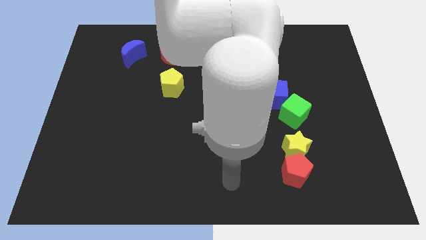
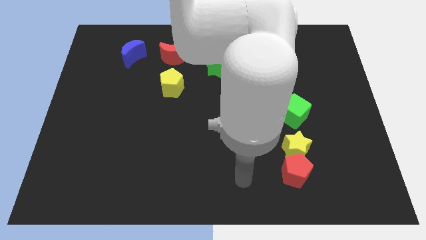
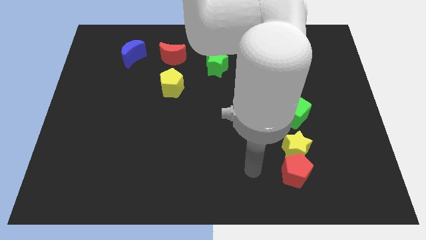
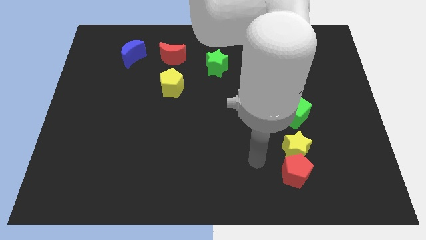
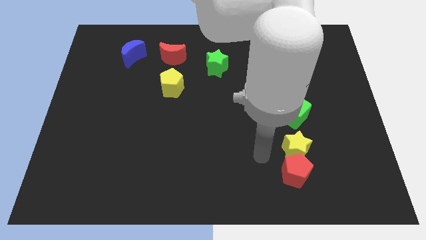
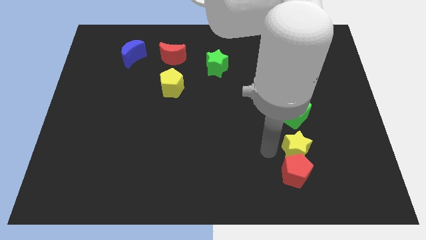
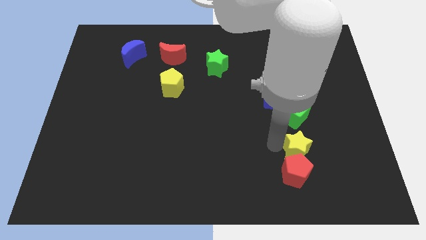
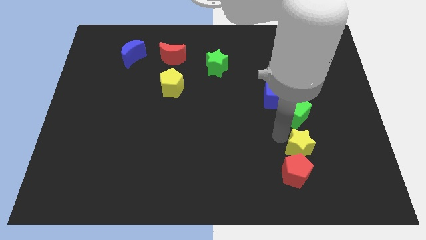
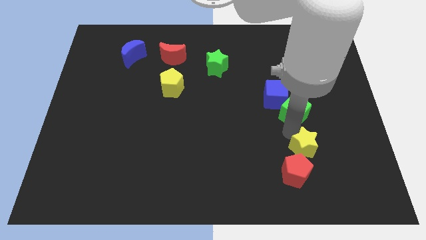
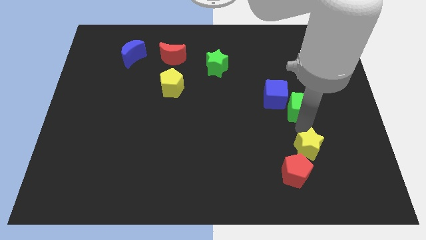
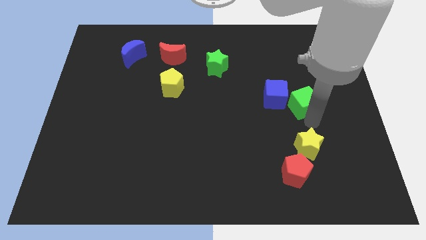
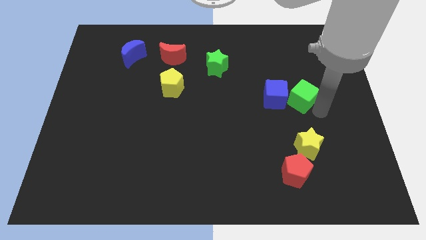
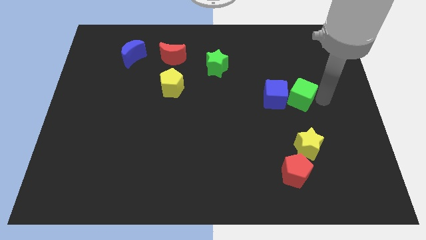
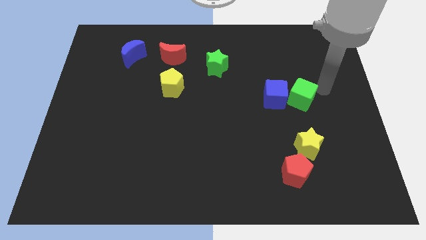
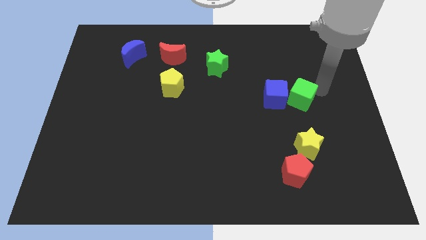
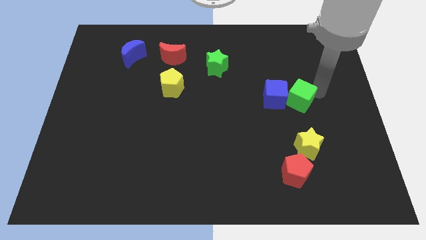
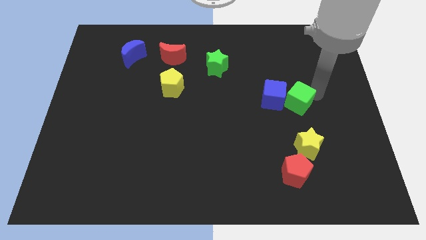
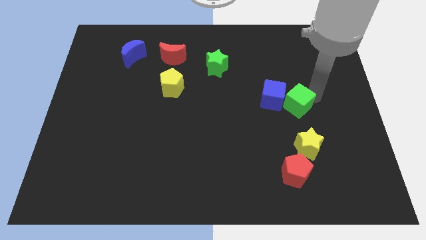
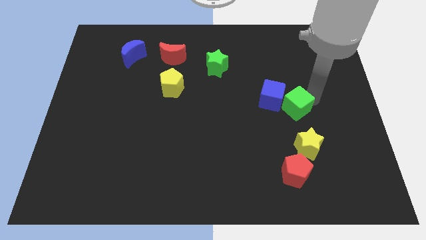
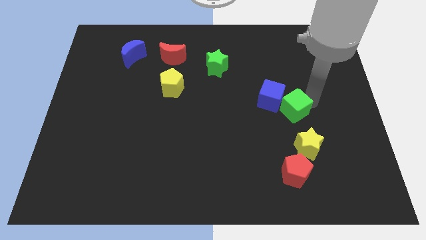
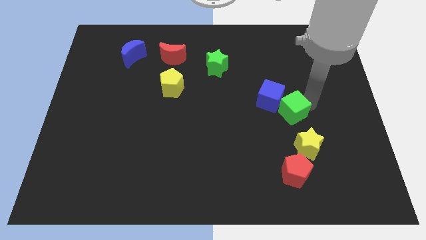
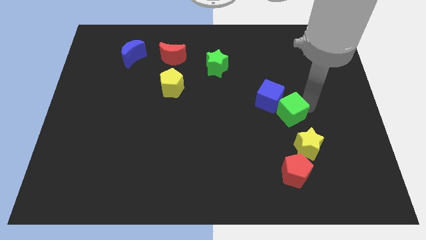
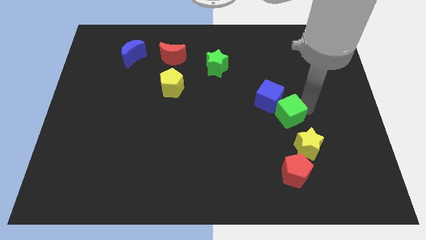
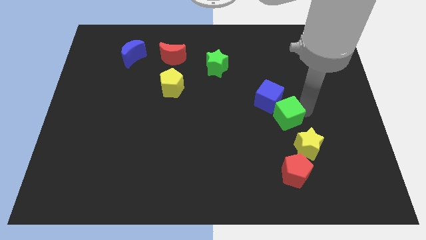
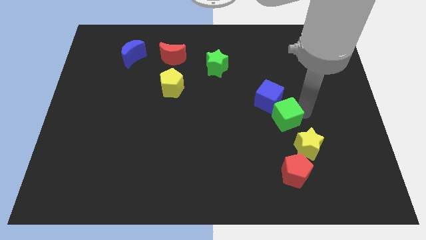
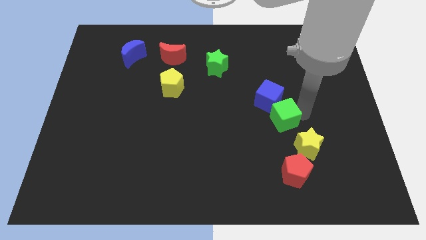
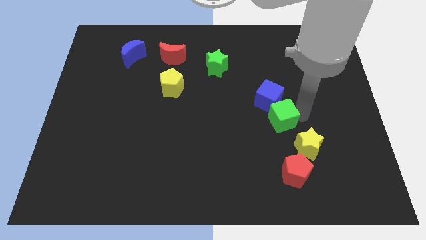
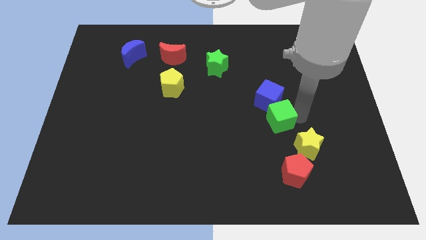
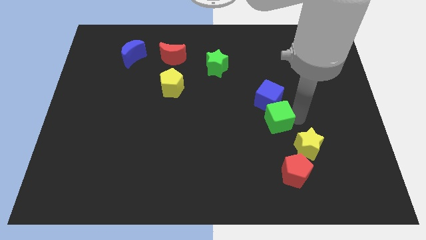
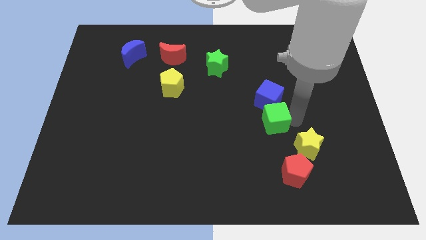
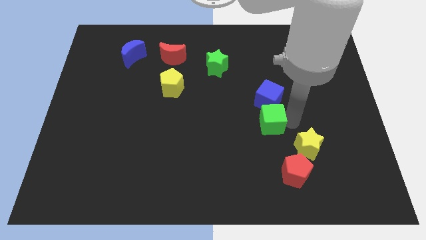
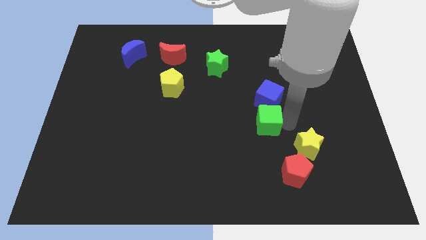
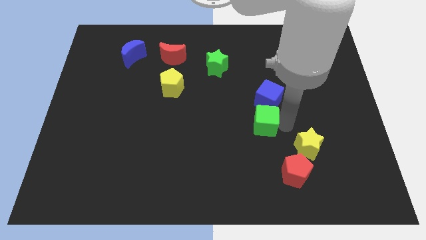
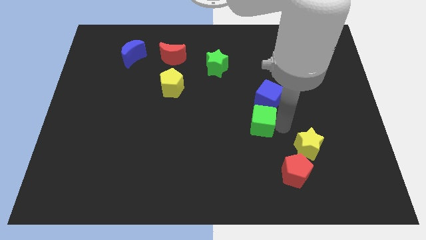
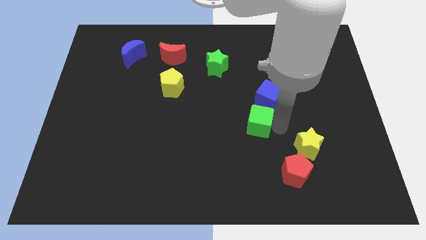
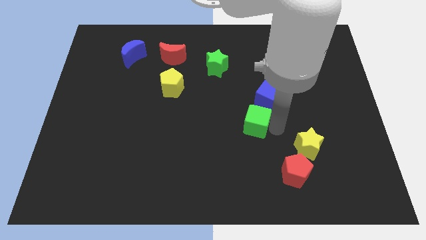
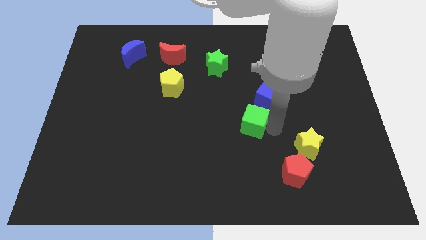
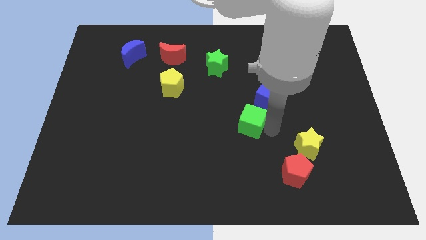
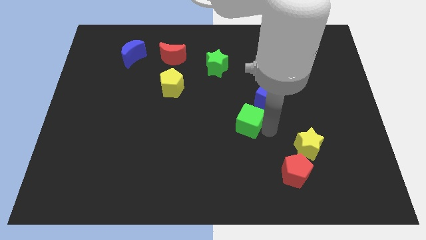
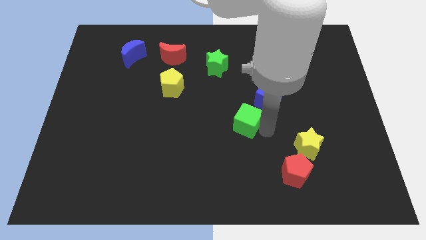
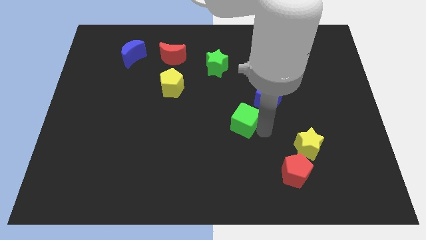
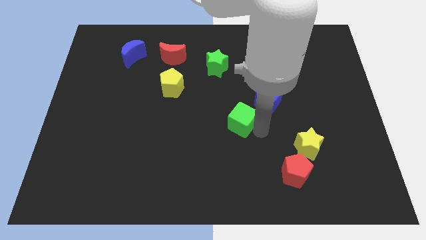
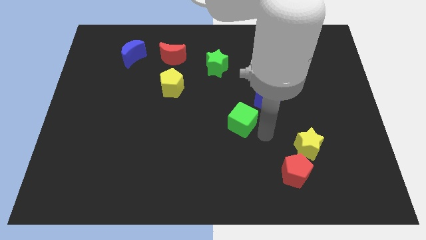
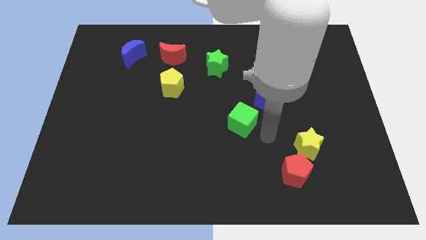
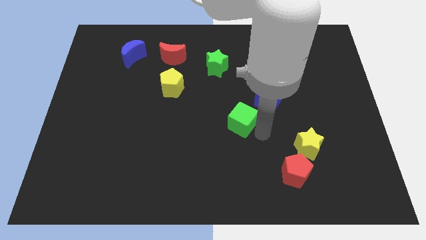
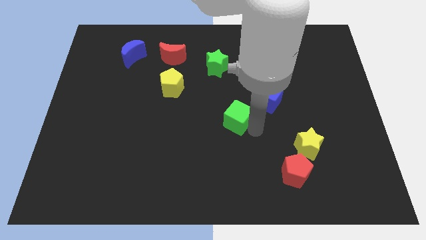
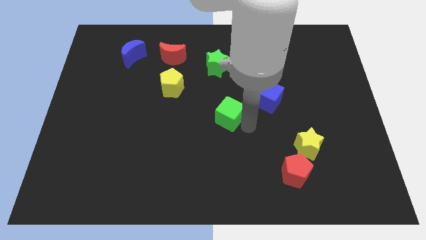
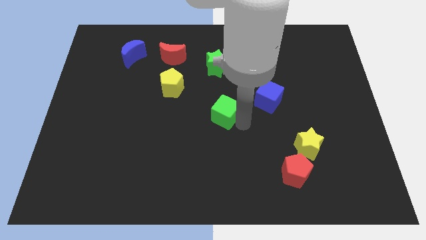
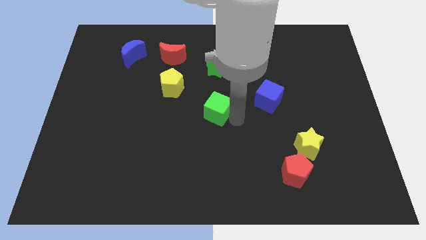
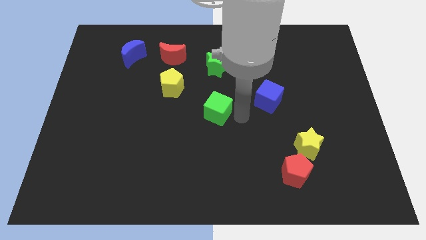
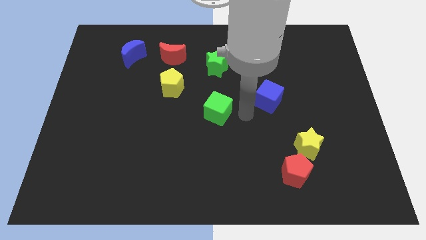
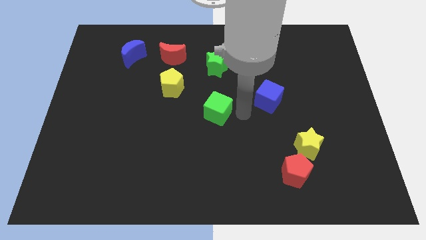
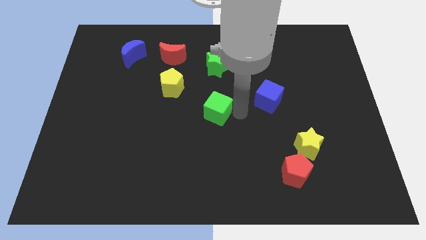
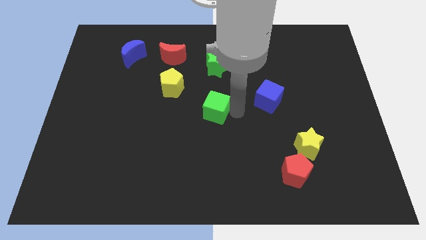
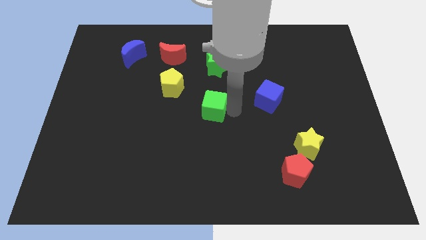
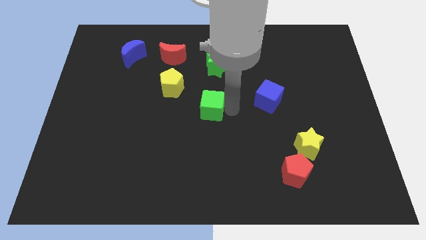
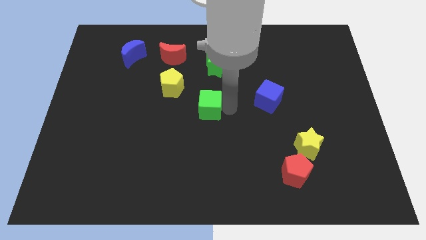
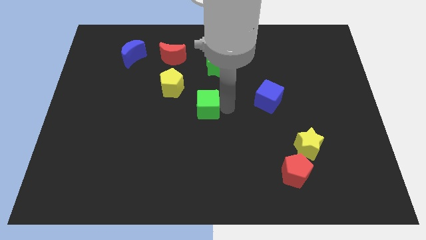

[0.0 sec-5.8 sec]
move the green cube to the left

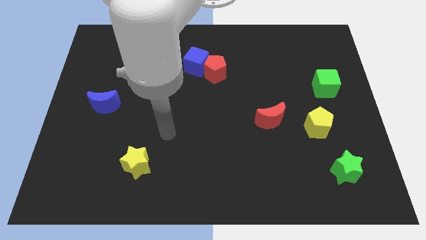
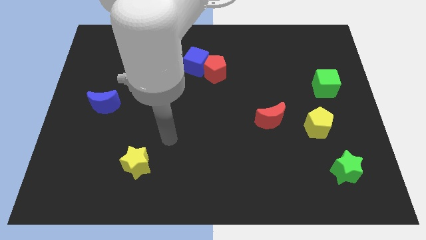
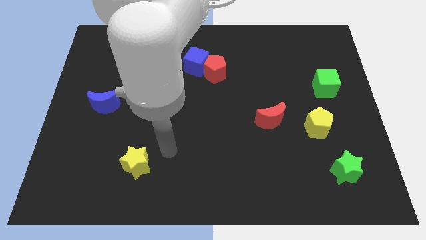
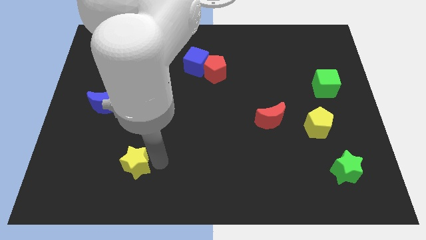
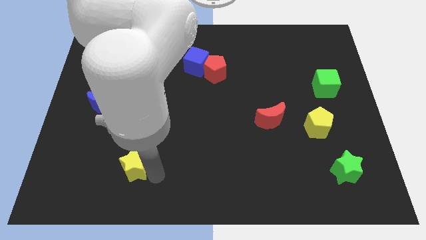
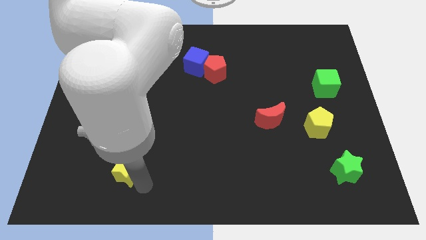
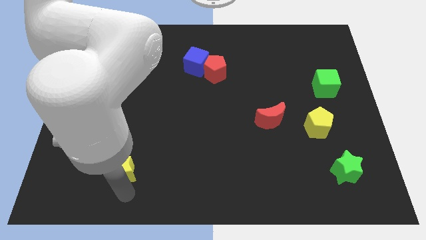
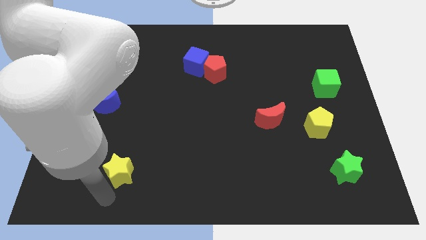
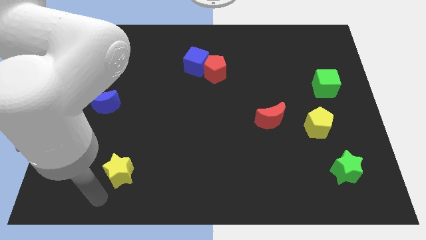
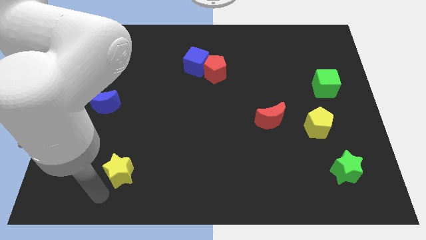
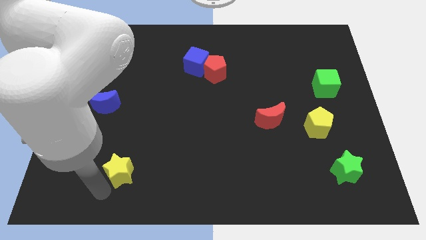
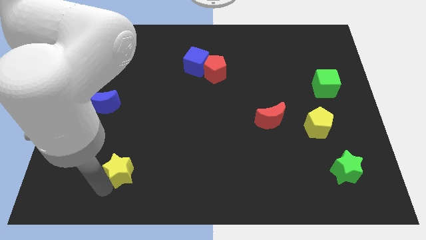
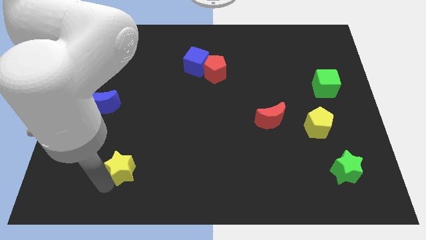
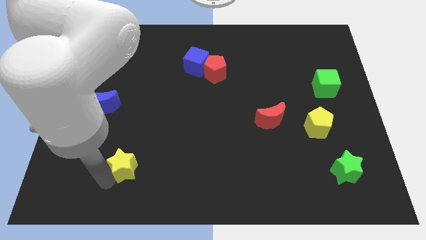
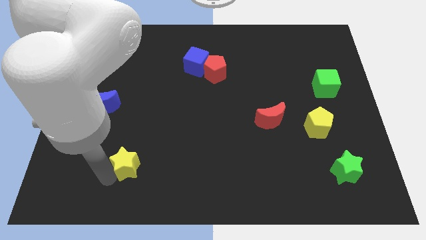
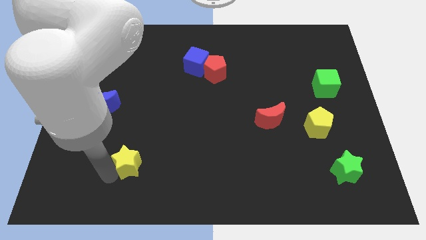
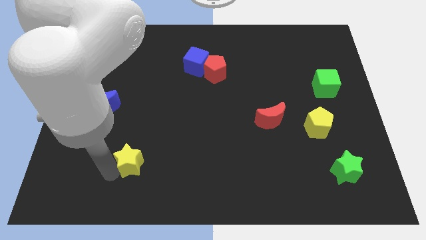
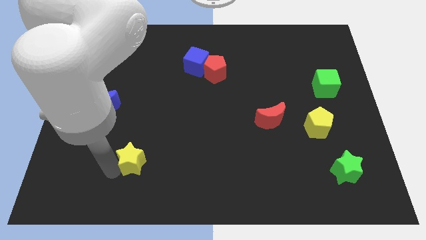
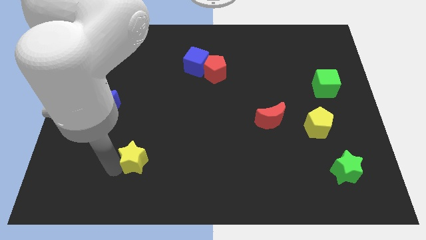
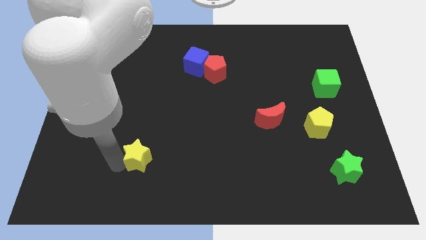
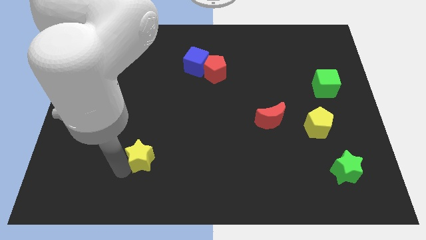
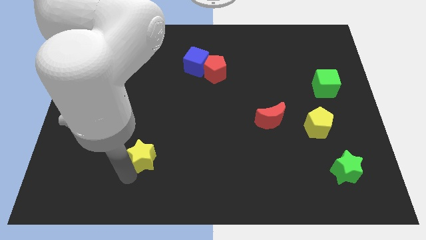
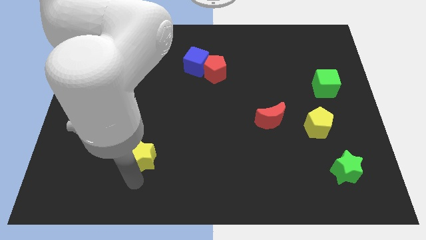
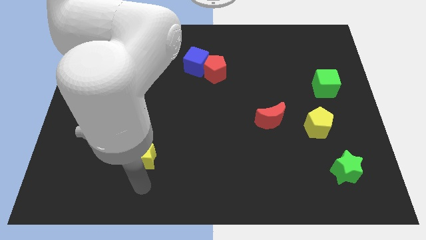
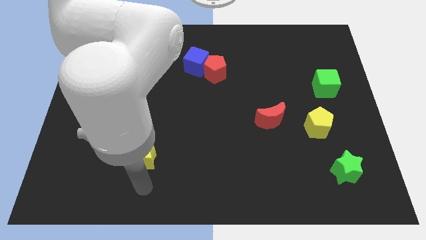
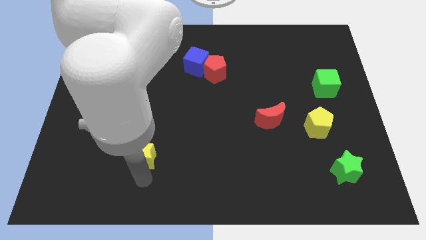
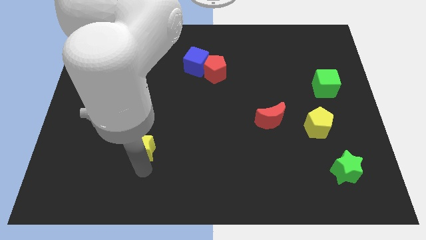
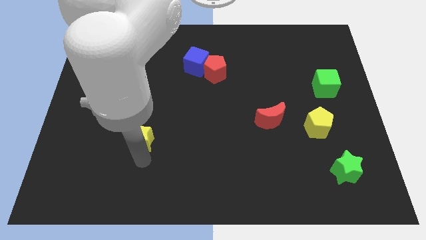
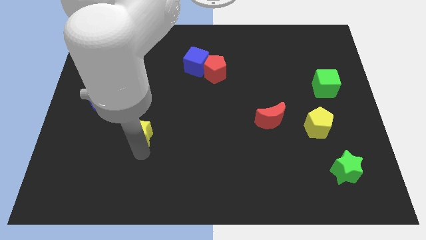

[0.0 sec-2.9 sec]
slide the yellow star upwards a bit
